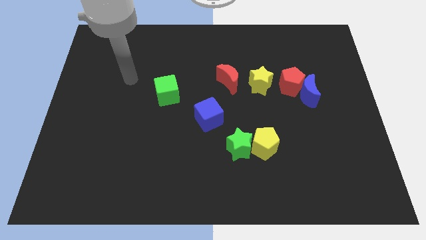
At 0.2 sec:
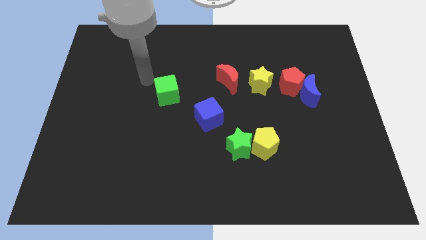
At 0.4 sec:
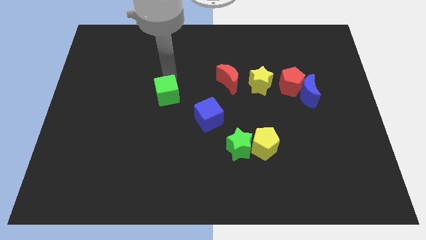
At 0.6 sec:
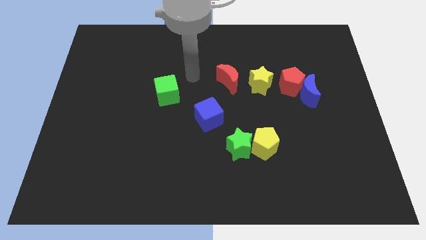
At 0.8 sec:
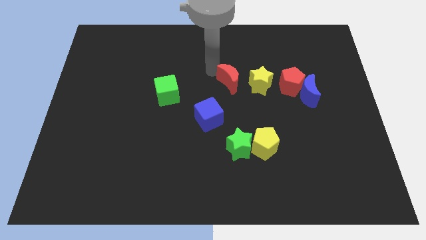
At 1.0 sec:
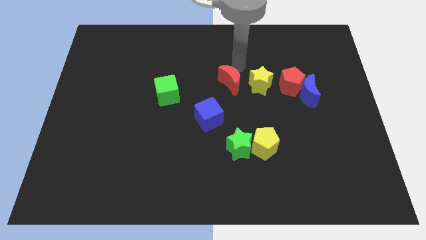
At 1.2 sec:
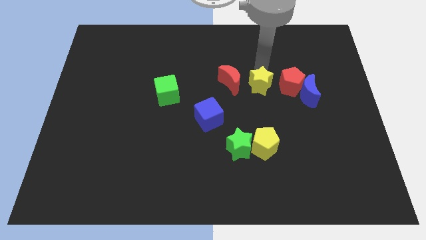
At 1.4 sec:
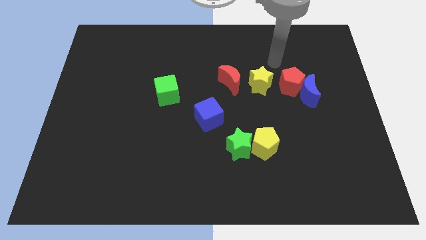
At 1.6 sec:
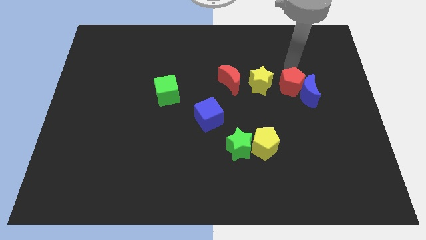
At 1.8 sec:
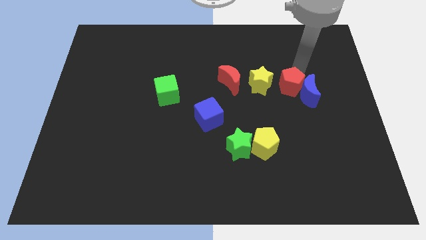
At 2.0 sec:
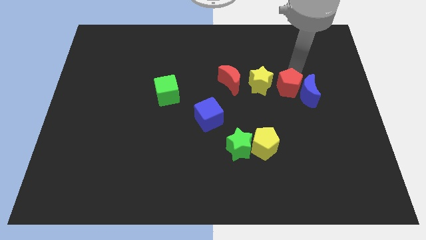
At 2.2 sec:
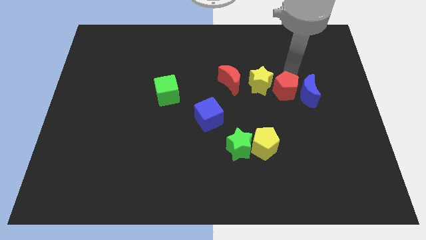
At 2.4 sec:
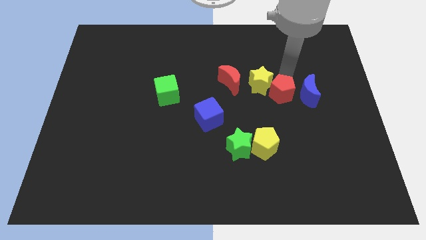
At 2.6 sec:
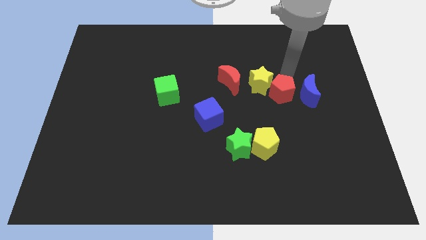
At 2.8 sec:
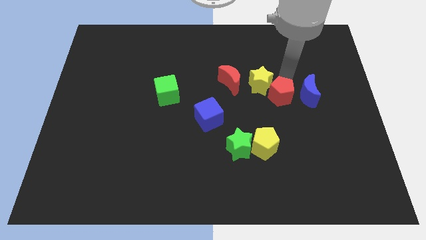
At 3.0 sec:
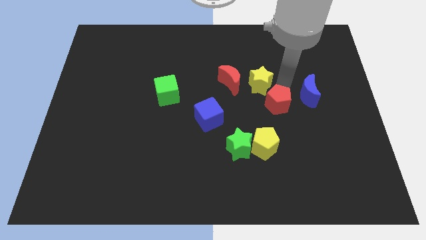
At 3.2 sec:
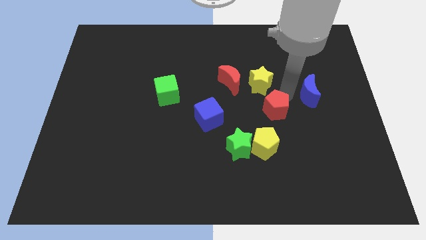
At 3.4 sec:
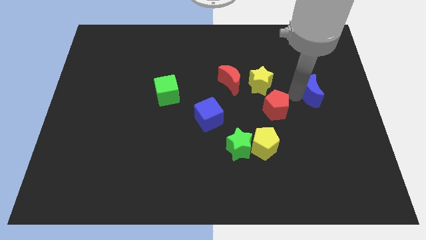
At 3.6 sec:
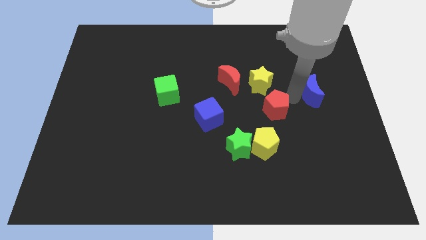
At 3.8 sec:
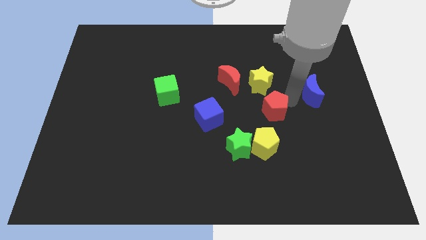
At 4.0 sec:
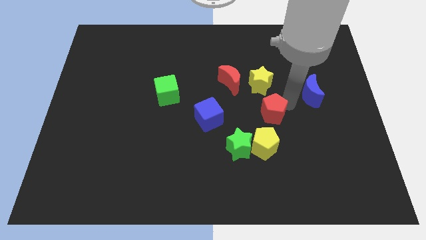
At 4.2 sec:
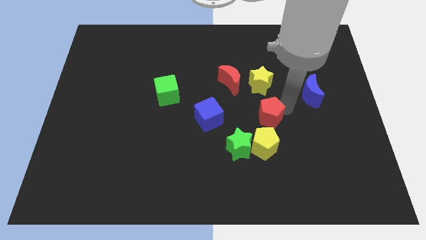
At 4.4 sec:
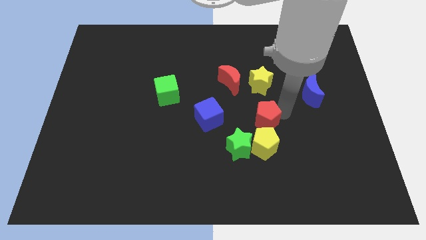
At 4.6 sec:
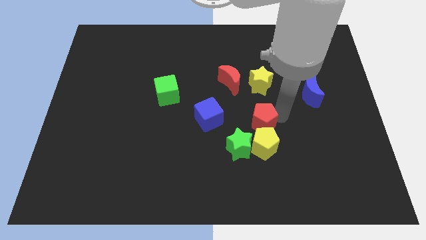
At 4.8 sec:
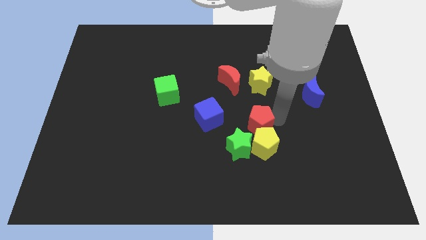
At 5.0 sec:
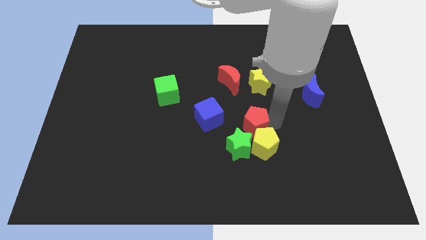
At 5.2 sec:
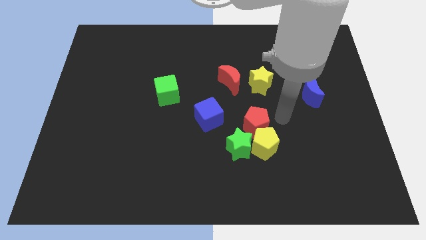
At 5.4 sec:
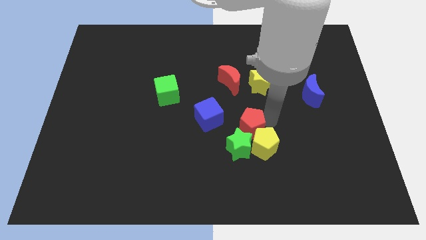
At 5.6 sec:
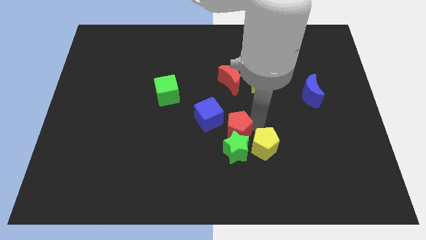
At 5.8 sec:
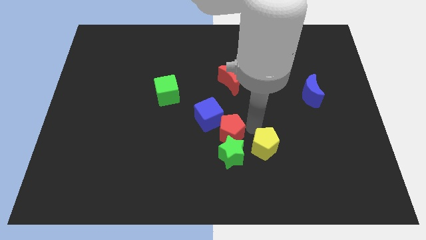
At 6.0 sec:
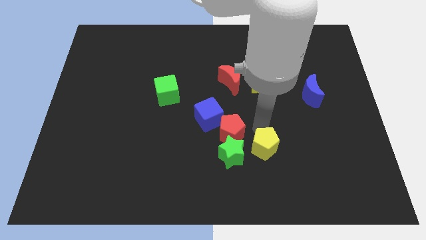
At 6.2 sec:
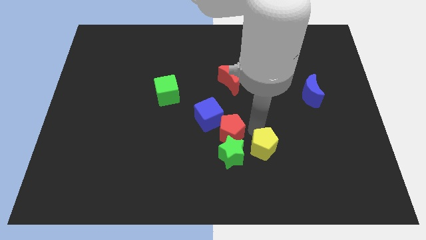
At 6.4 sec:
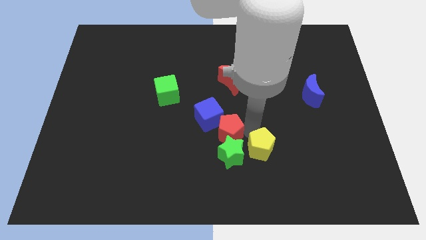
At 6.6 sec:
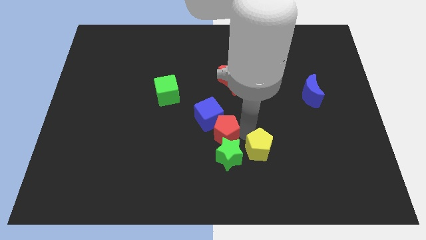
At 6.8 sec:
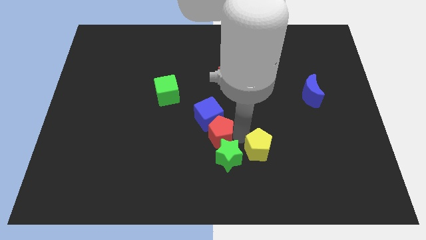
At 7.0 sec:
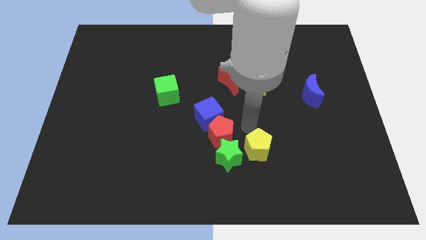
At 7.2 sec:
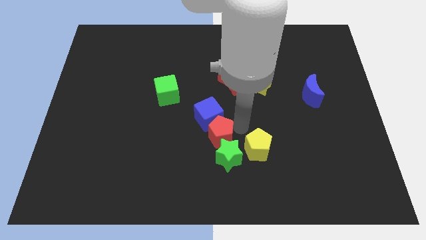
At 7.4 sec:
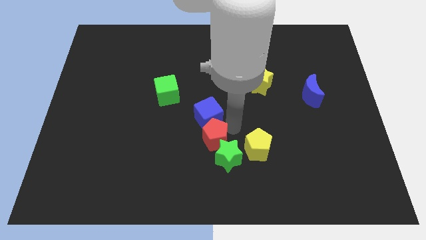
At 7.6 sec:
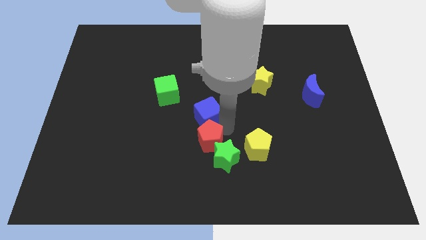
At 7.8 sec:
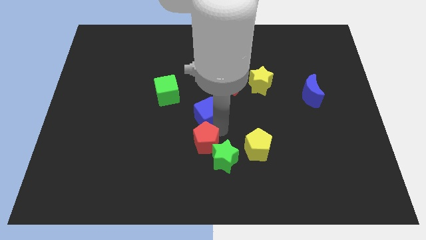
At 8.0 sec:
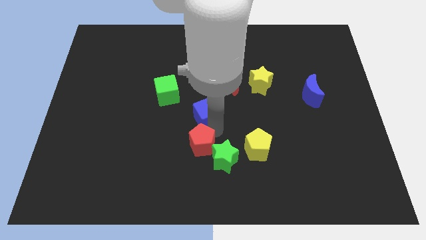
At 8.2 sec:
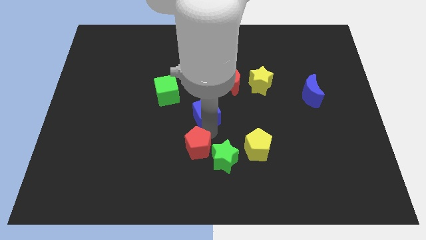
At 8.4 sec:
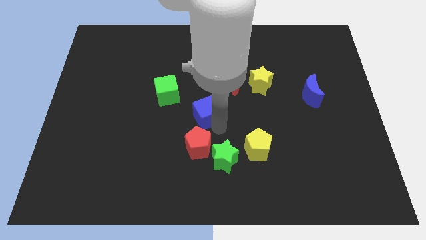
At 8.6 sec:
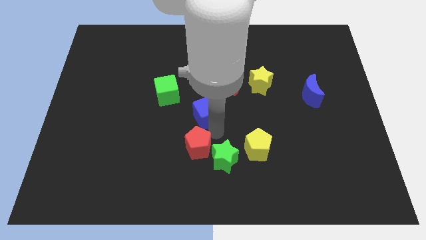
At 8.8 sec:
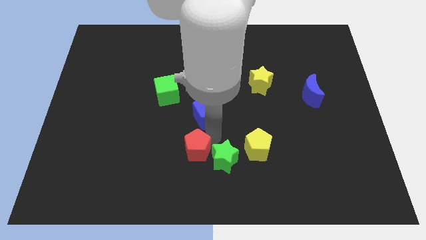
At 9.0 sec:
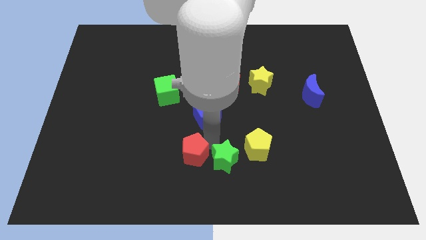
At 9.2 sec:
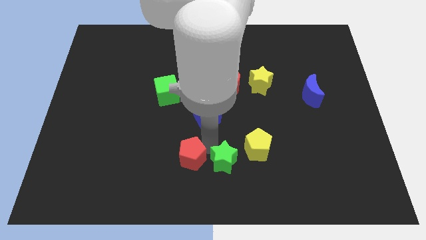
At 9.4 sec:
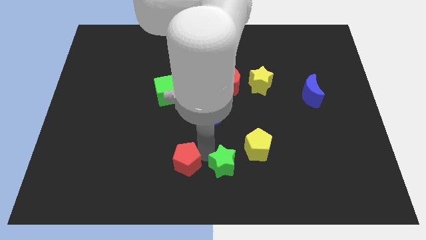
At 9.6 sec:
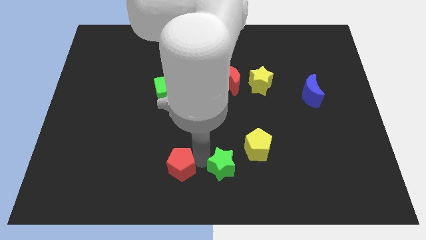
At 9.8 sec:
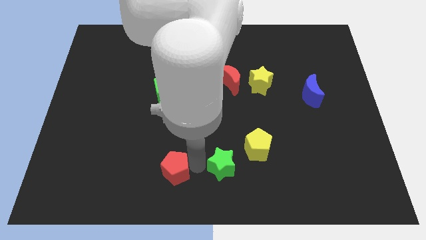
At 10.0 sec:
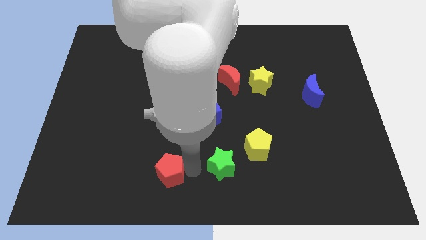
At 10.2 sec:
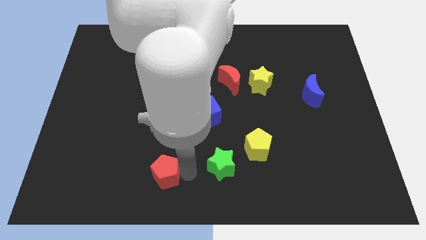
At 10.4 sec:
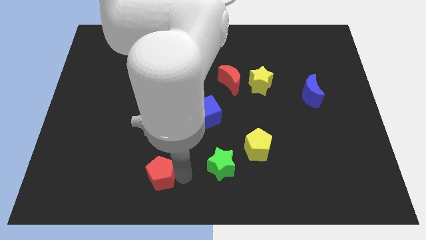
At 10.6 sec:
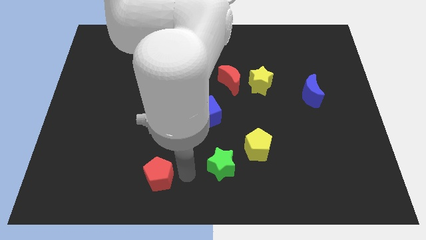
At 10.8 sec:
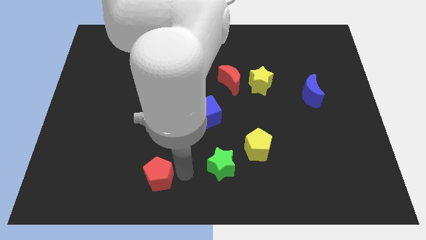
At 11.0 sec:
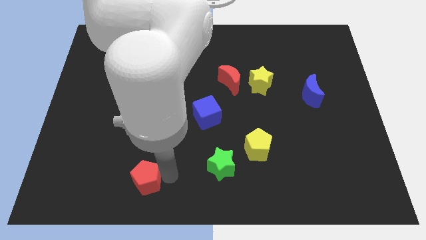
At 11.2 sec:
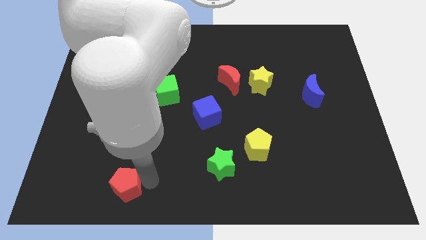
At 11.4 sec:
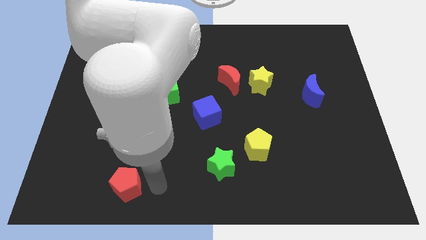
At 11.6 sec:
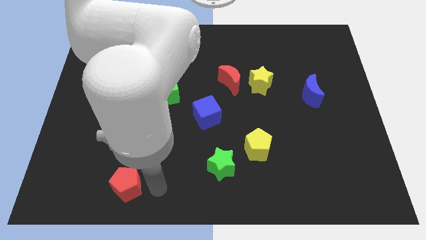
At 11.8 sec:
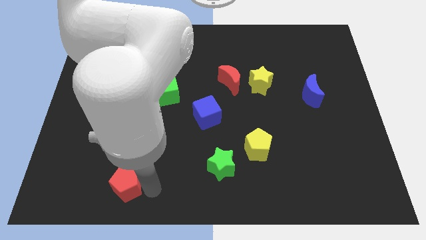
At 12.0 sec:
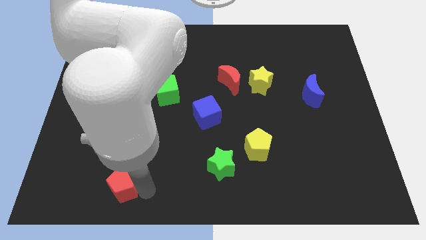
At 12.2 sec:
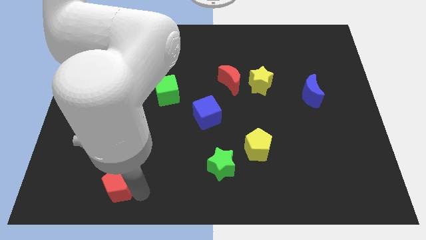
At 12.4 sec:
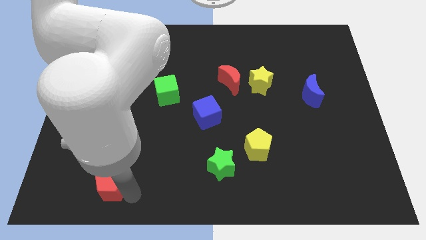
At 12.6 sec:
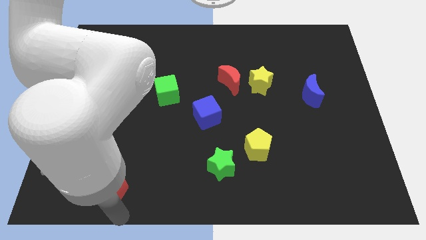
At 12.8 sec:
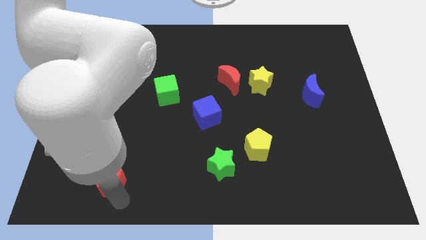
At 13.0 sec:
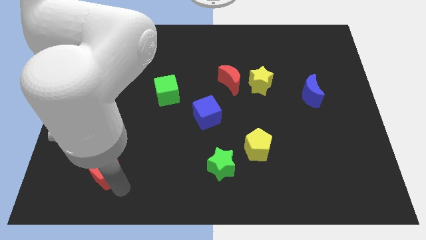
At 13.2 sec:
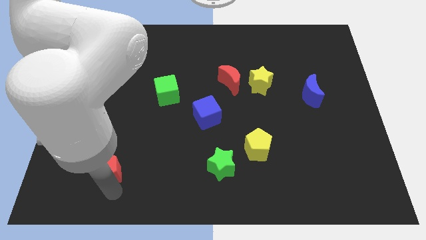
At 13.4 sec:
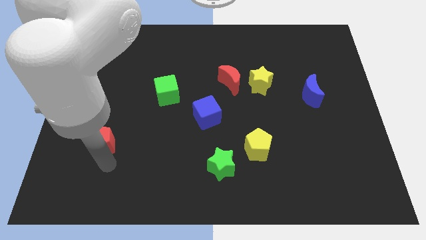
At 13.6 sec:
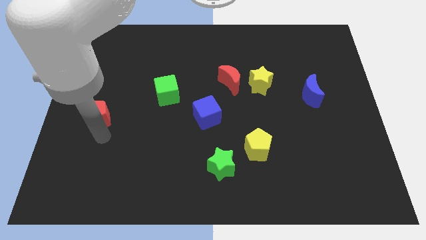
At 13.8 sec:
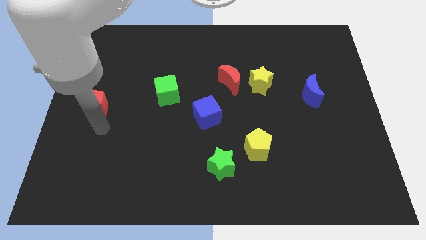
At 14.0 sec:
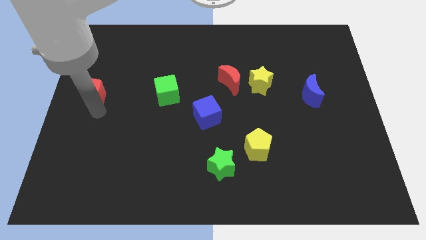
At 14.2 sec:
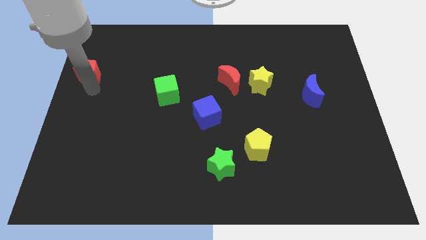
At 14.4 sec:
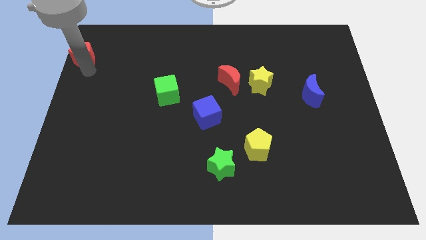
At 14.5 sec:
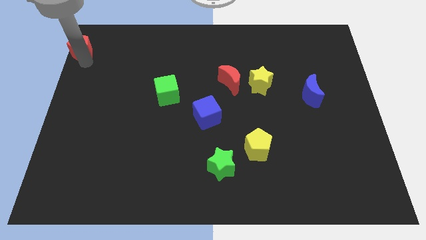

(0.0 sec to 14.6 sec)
move the red pentagon to the top left corner
